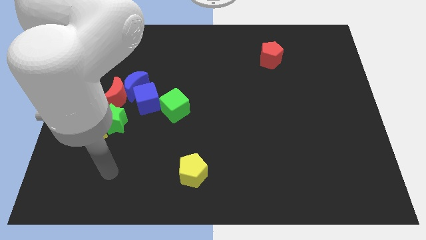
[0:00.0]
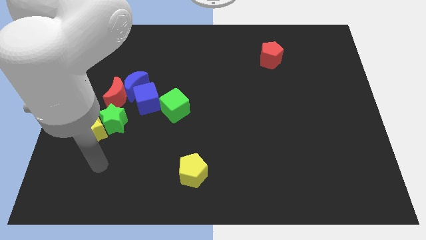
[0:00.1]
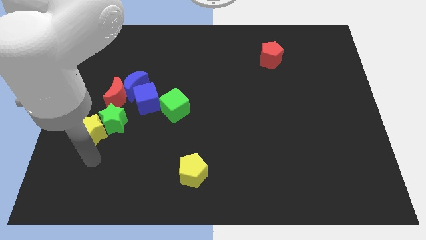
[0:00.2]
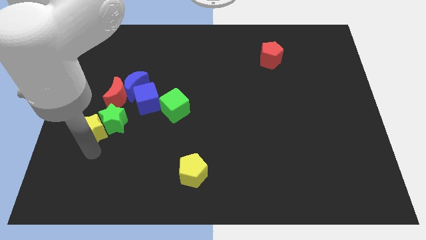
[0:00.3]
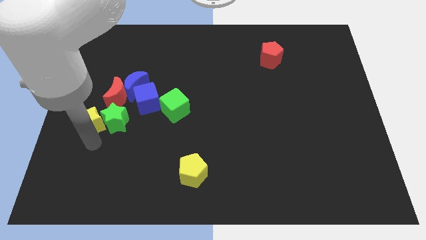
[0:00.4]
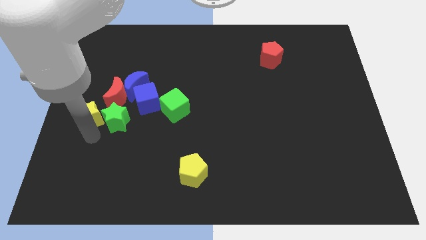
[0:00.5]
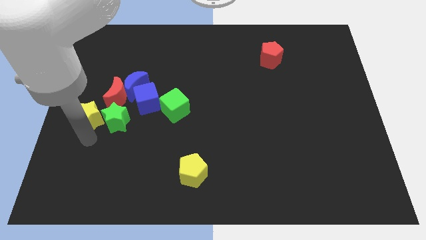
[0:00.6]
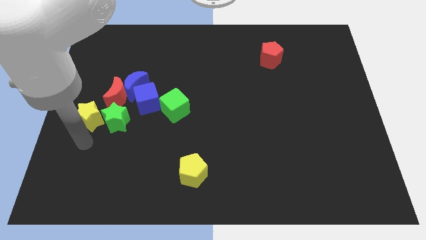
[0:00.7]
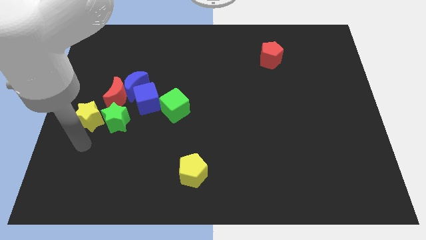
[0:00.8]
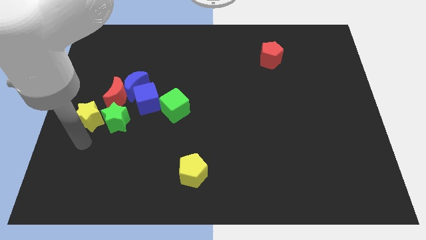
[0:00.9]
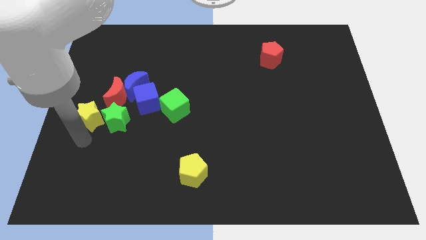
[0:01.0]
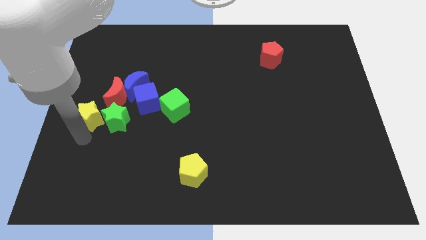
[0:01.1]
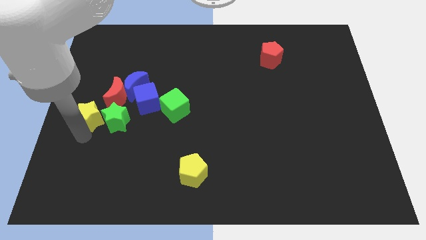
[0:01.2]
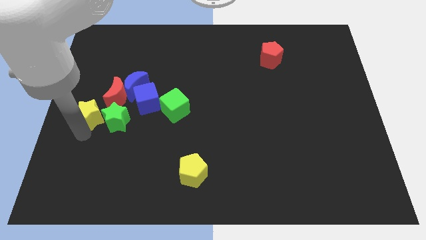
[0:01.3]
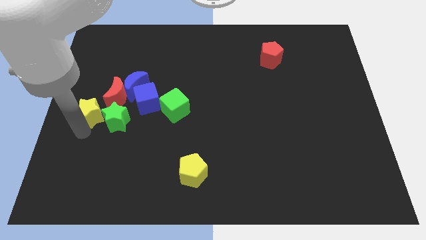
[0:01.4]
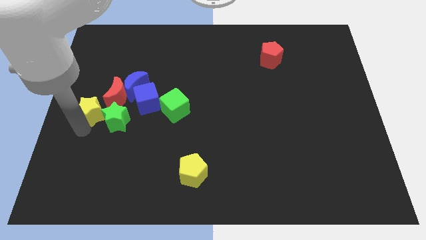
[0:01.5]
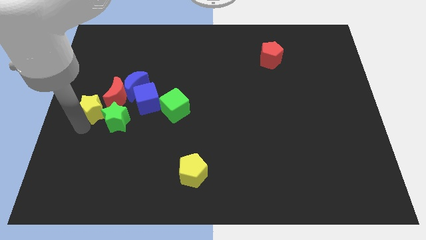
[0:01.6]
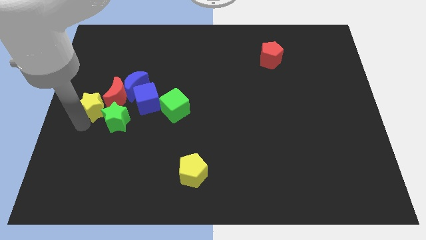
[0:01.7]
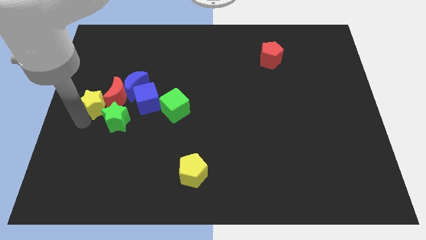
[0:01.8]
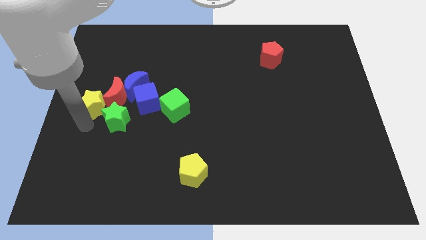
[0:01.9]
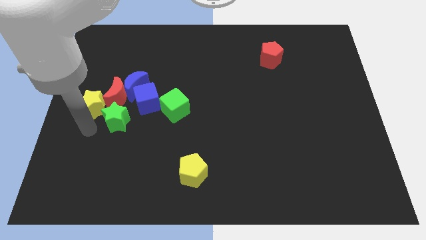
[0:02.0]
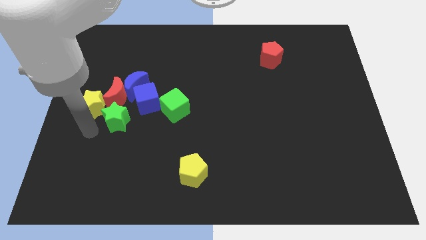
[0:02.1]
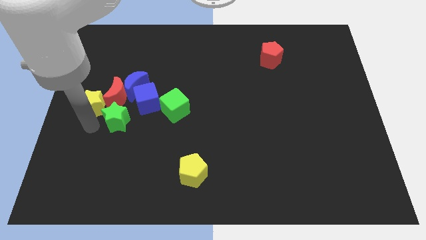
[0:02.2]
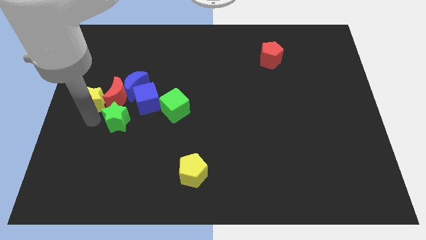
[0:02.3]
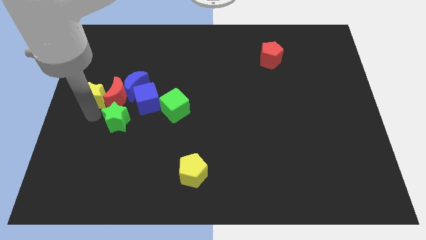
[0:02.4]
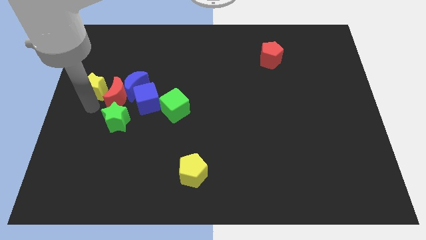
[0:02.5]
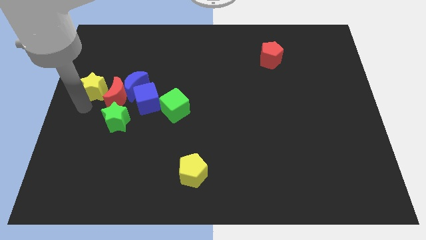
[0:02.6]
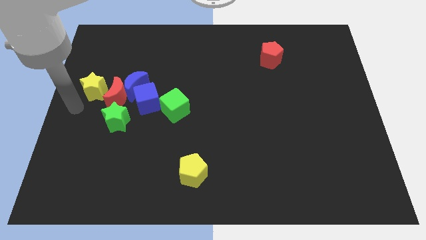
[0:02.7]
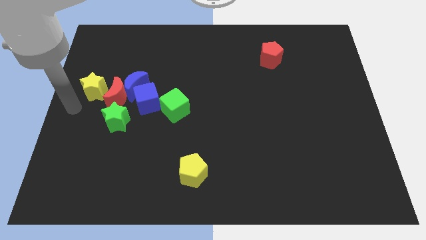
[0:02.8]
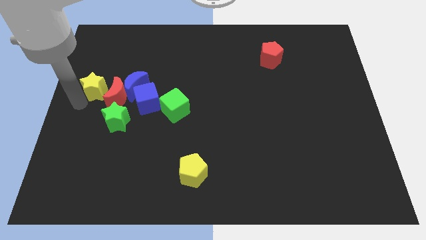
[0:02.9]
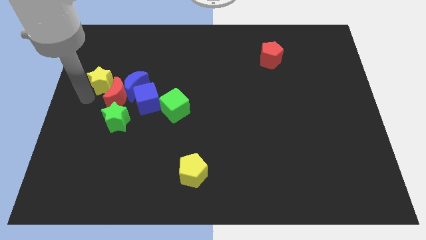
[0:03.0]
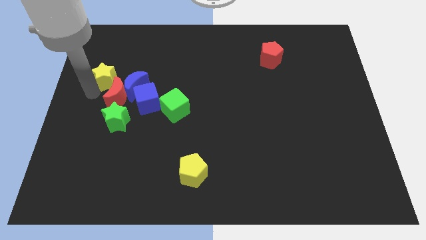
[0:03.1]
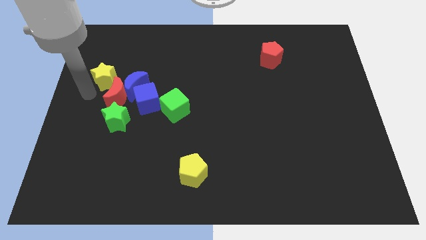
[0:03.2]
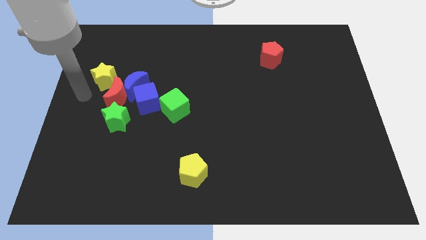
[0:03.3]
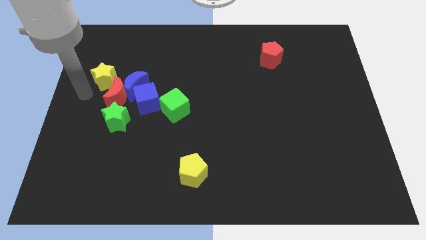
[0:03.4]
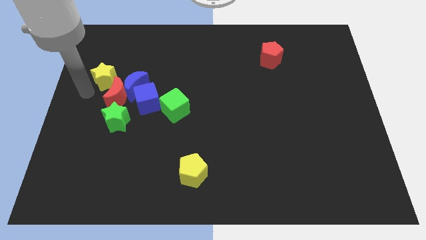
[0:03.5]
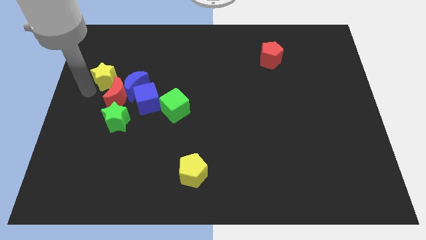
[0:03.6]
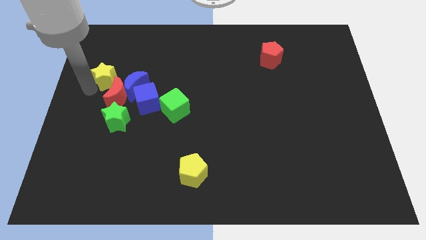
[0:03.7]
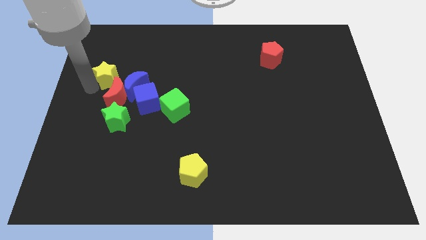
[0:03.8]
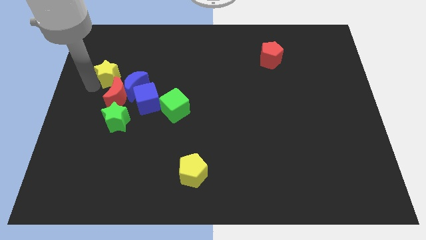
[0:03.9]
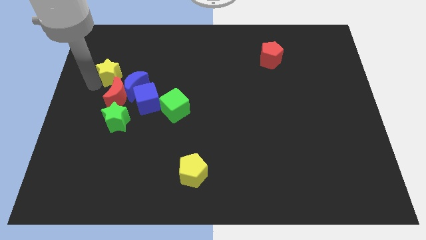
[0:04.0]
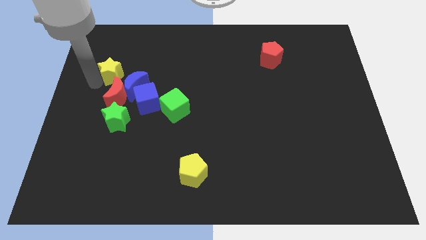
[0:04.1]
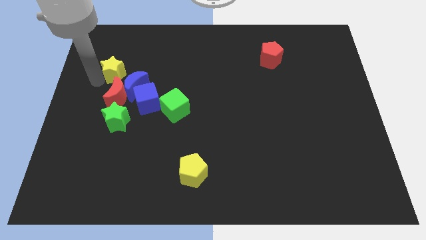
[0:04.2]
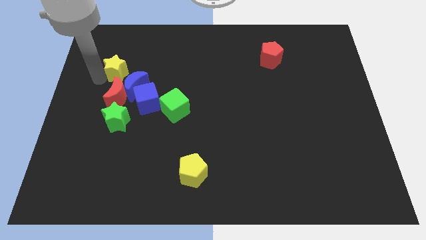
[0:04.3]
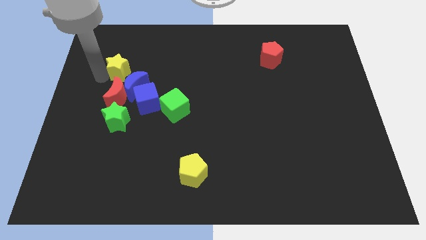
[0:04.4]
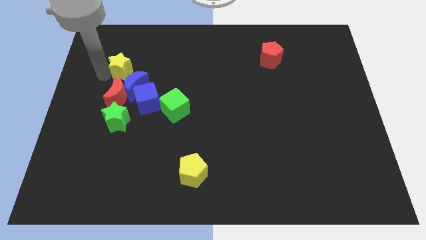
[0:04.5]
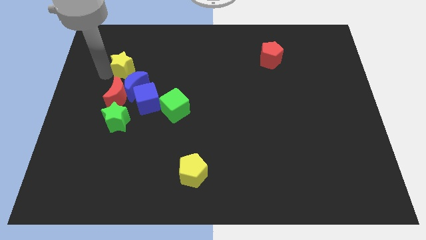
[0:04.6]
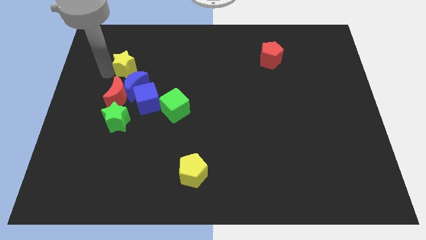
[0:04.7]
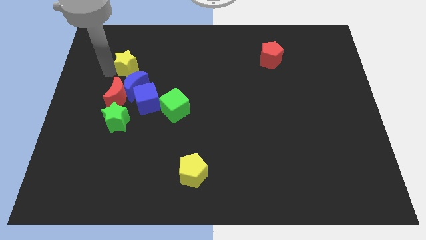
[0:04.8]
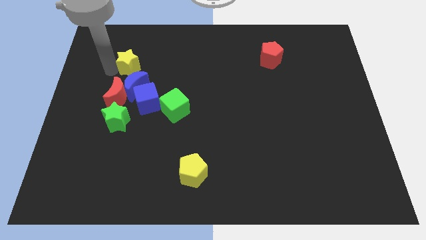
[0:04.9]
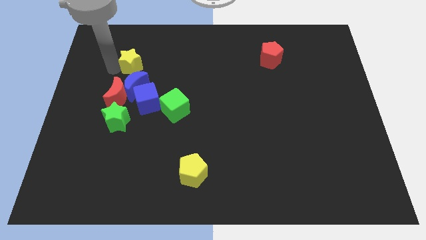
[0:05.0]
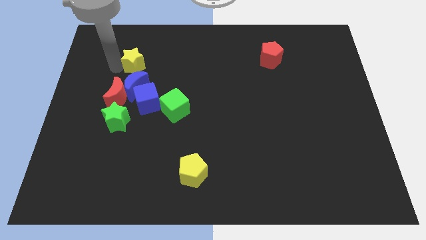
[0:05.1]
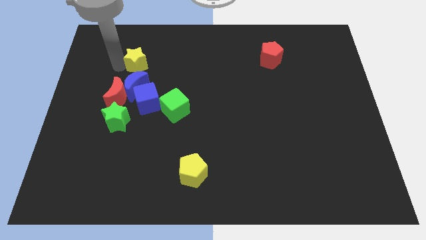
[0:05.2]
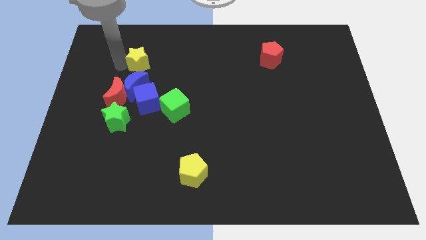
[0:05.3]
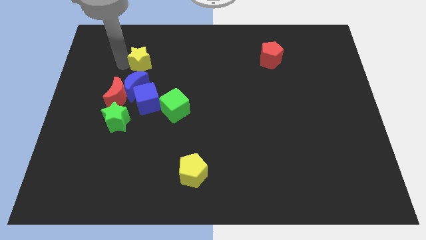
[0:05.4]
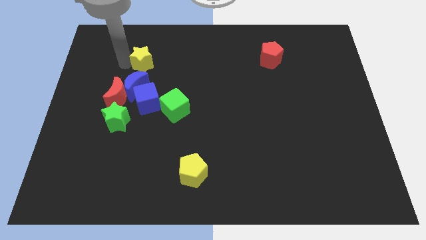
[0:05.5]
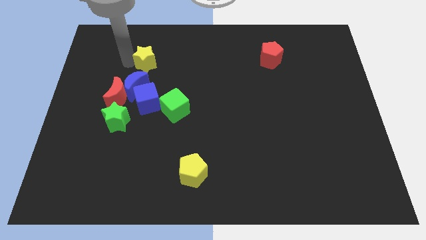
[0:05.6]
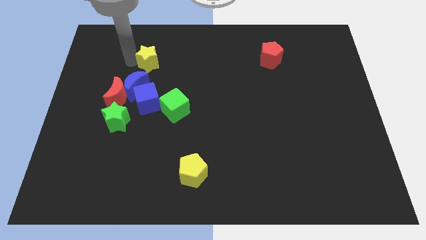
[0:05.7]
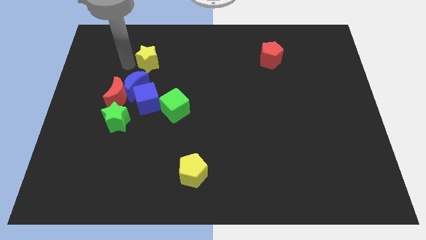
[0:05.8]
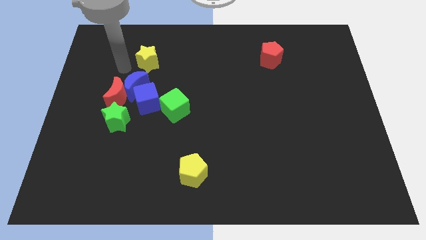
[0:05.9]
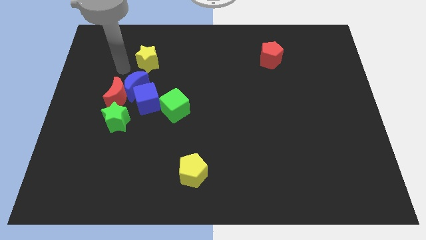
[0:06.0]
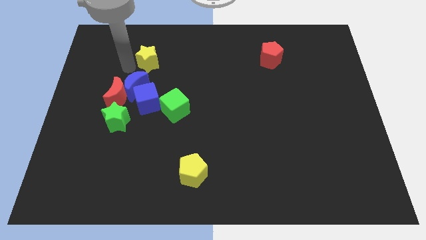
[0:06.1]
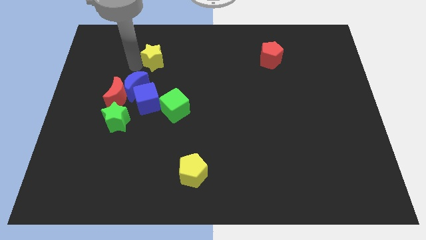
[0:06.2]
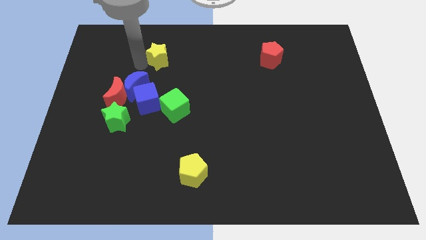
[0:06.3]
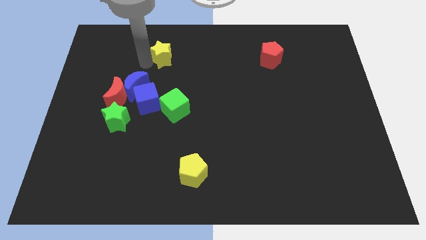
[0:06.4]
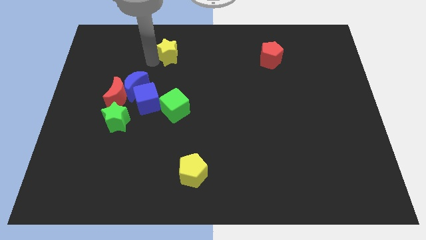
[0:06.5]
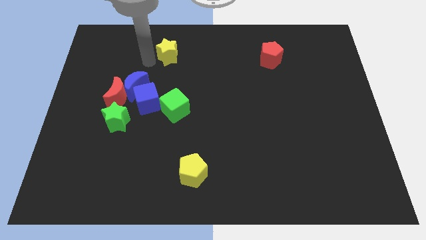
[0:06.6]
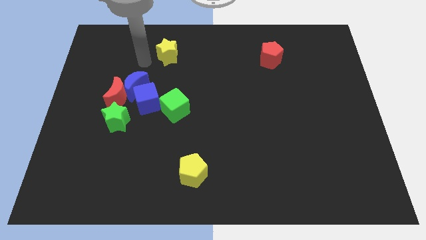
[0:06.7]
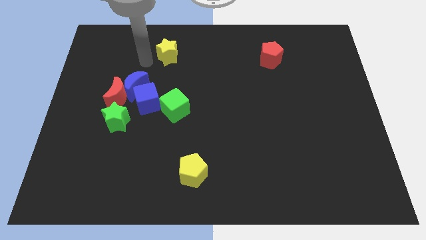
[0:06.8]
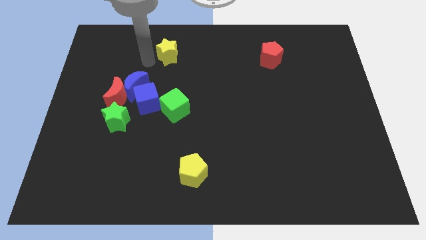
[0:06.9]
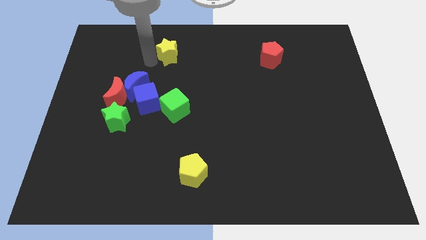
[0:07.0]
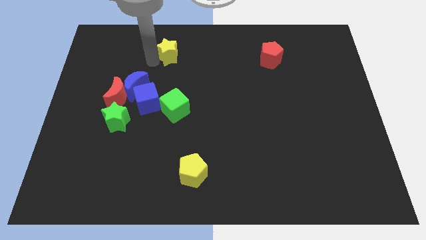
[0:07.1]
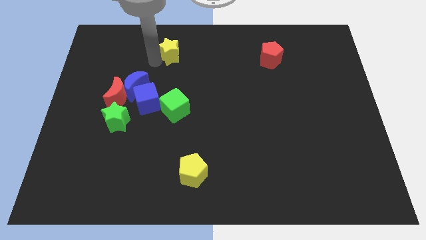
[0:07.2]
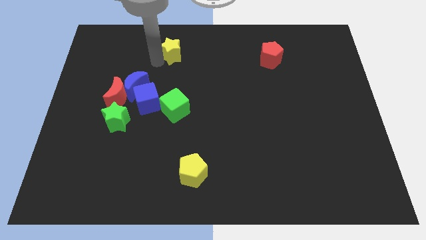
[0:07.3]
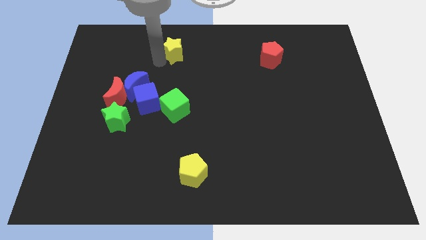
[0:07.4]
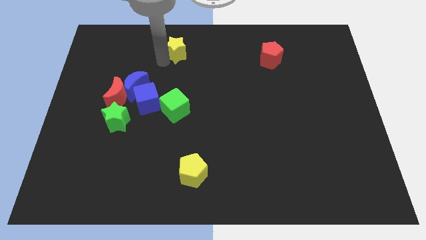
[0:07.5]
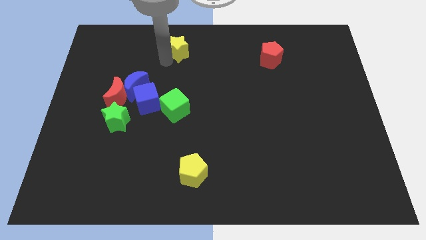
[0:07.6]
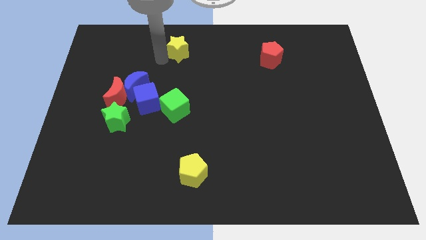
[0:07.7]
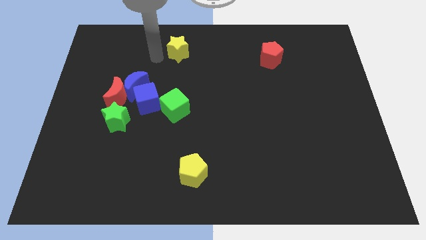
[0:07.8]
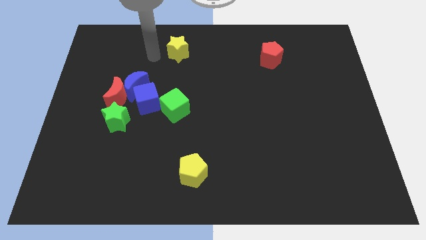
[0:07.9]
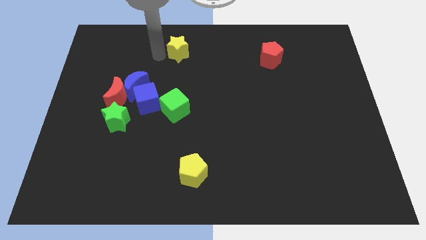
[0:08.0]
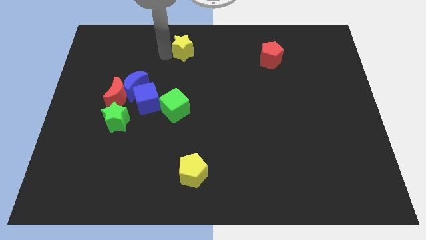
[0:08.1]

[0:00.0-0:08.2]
push the yellow star to the top side
